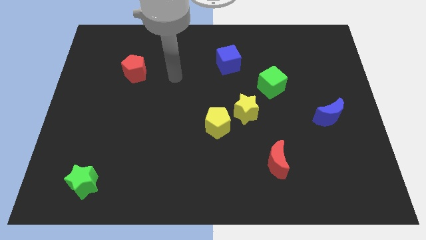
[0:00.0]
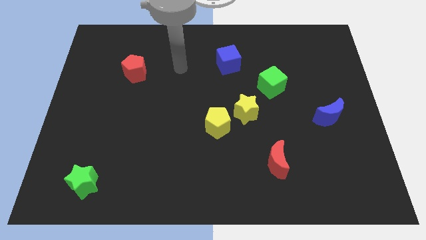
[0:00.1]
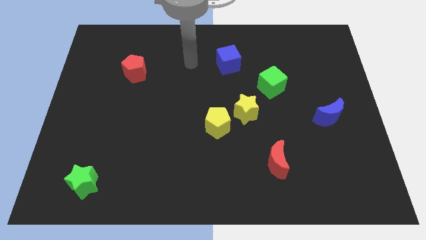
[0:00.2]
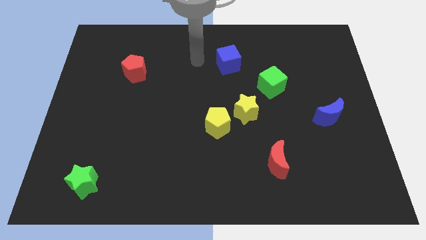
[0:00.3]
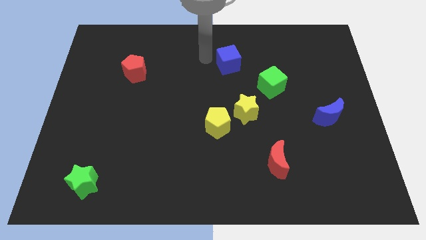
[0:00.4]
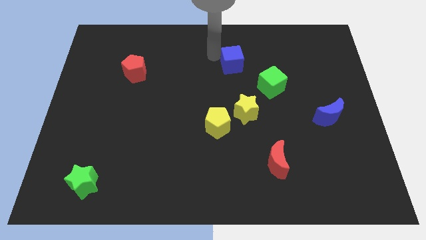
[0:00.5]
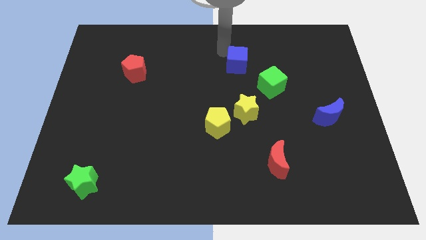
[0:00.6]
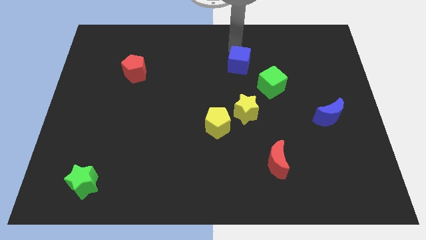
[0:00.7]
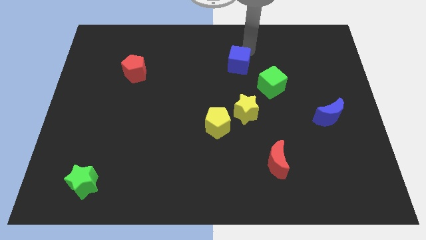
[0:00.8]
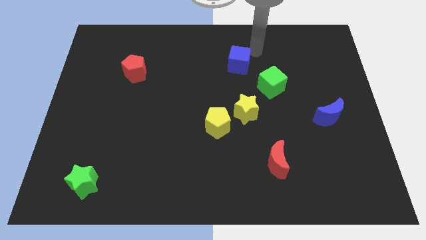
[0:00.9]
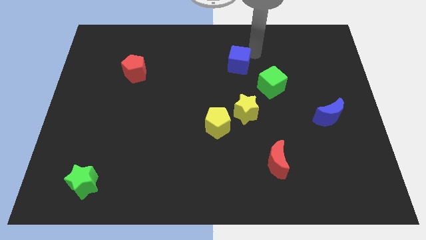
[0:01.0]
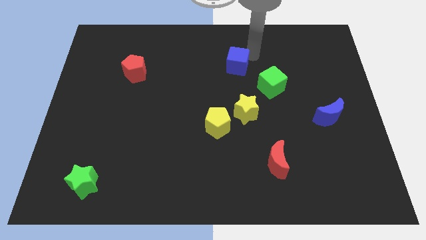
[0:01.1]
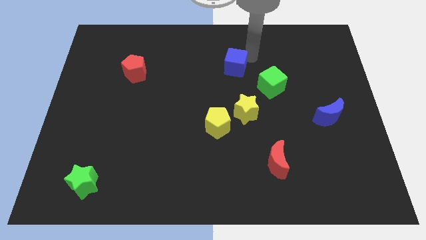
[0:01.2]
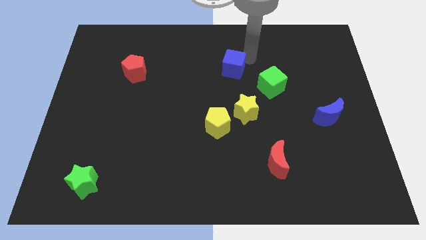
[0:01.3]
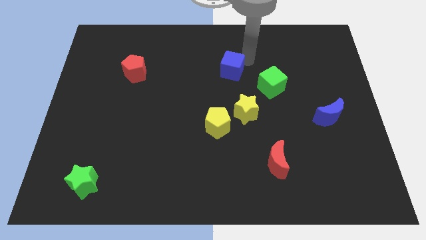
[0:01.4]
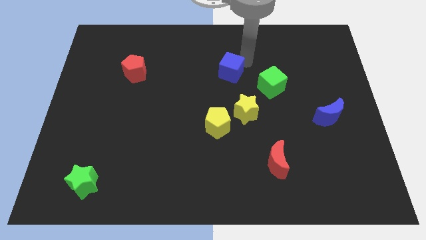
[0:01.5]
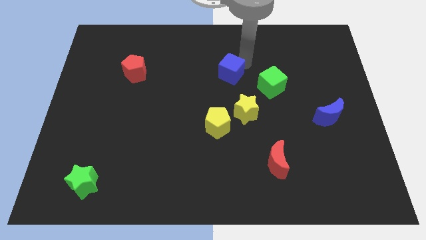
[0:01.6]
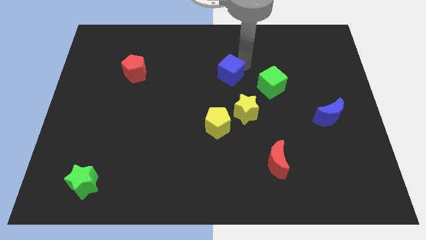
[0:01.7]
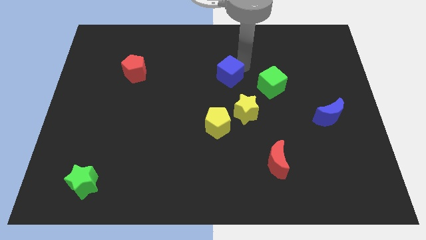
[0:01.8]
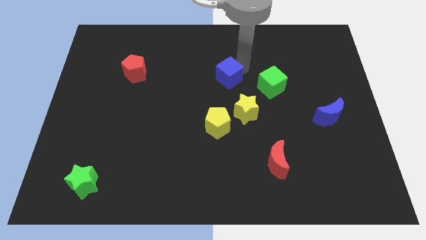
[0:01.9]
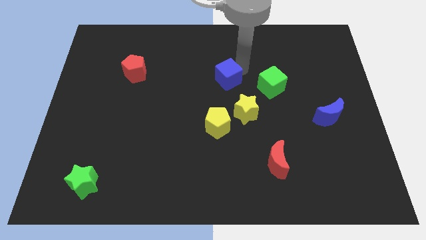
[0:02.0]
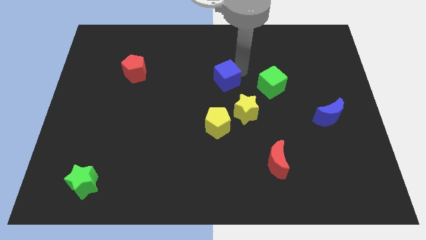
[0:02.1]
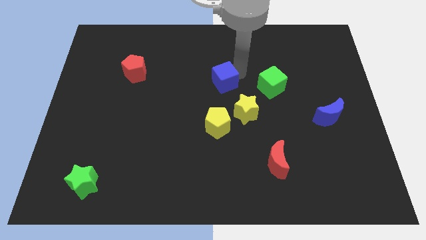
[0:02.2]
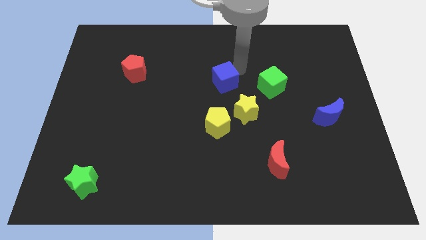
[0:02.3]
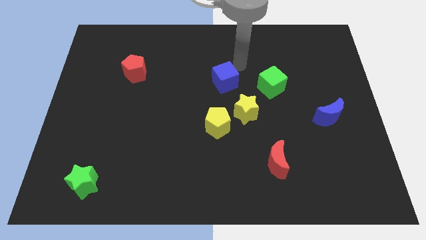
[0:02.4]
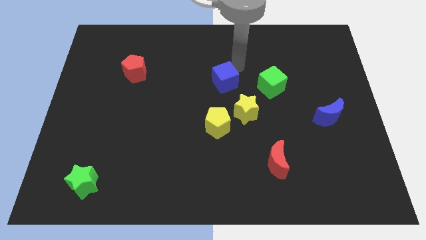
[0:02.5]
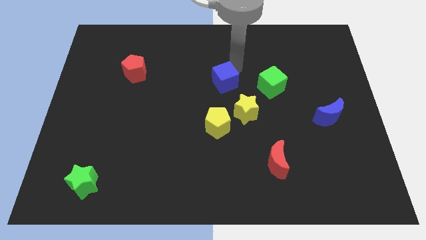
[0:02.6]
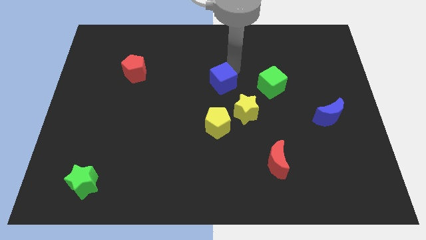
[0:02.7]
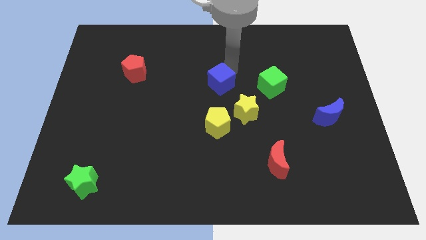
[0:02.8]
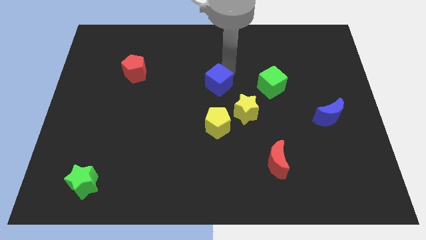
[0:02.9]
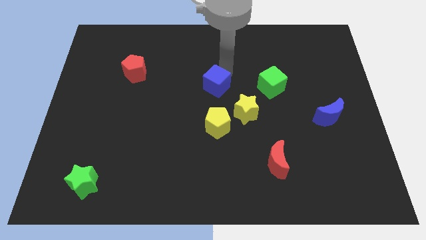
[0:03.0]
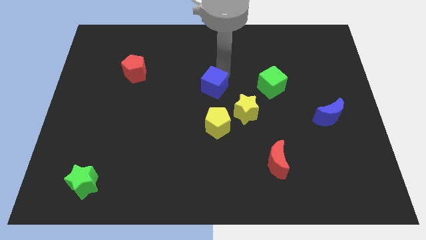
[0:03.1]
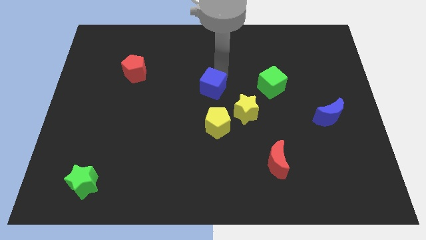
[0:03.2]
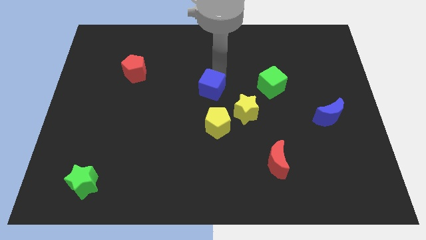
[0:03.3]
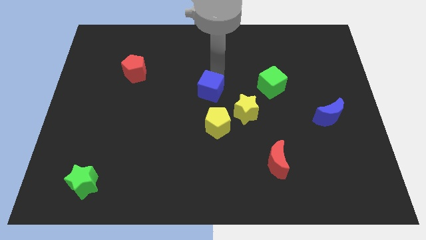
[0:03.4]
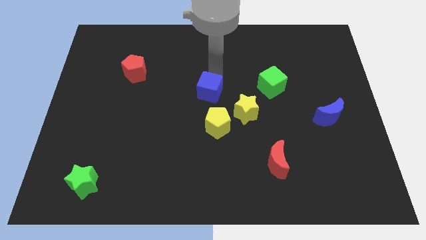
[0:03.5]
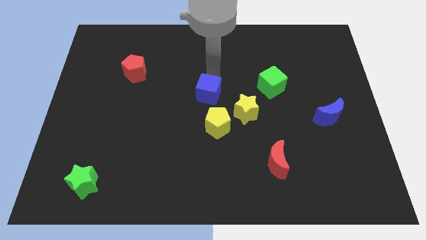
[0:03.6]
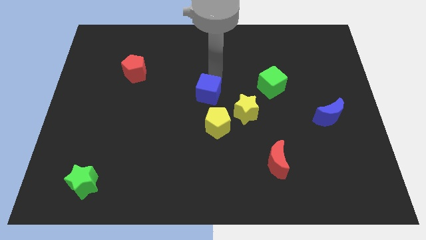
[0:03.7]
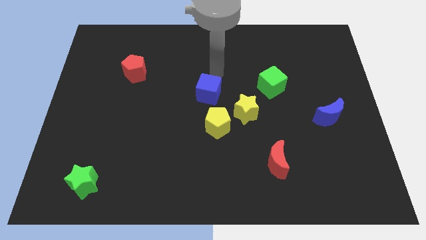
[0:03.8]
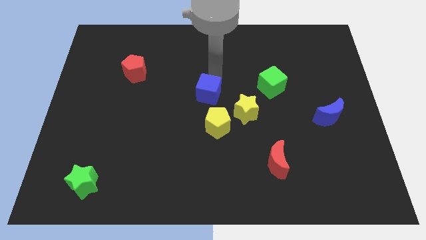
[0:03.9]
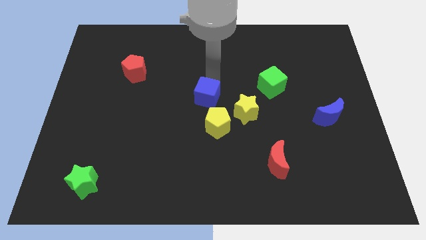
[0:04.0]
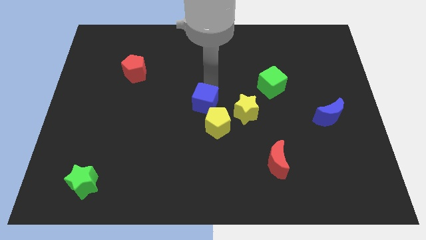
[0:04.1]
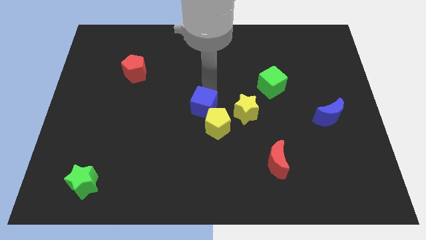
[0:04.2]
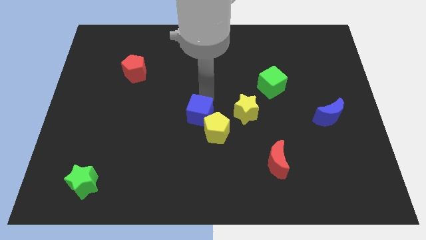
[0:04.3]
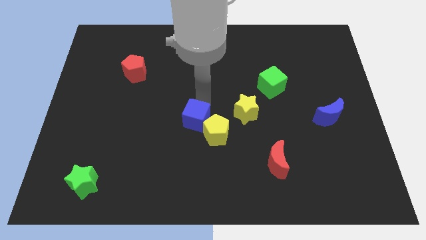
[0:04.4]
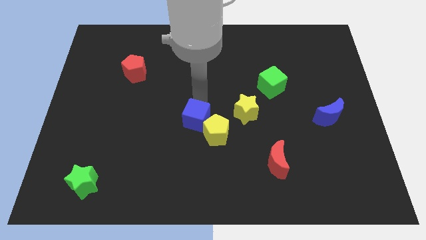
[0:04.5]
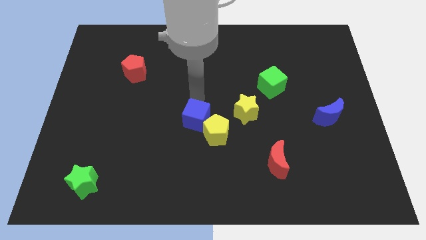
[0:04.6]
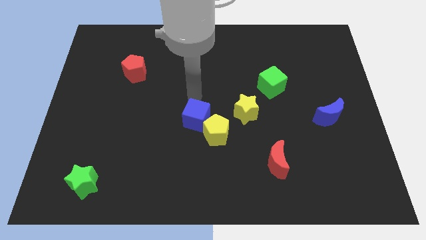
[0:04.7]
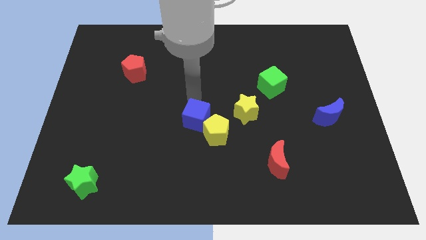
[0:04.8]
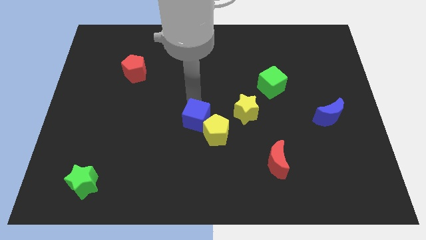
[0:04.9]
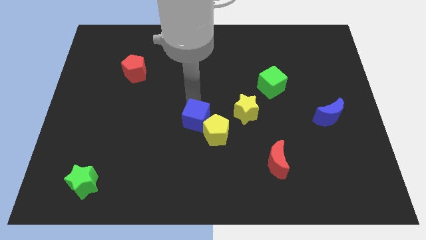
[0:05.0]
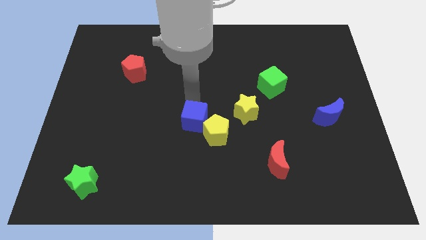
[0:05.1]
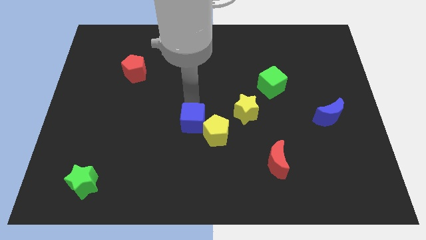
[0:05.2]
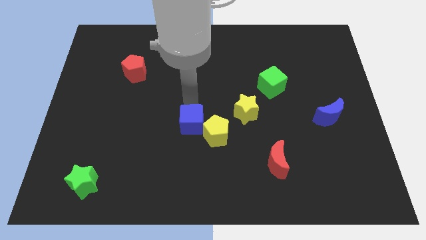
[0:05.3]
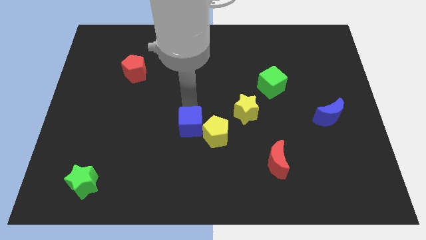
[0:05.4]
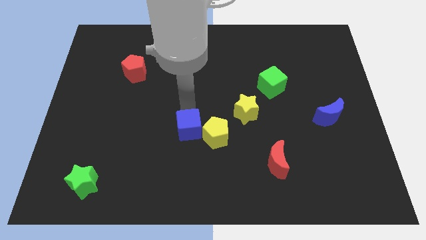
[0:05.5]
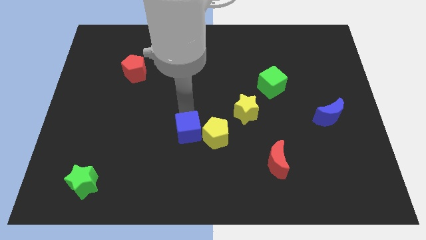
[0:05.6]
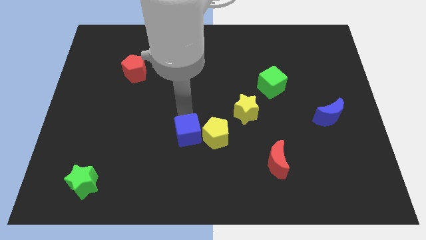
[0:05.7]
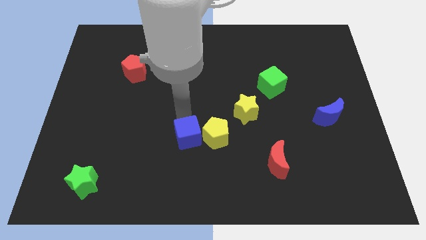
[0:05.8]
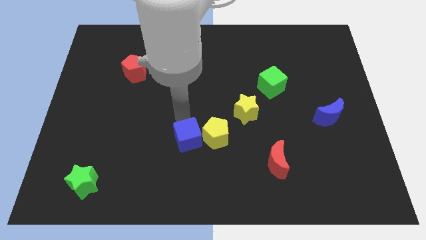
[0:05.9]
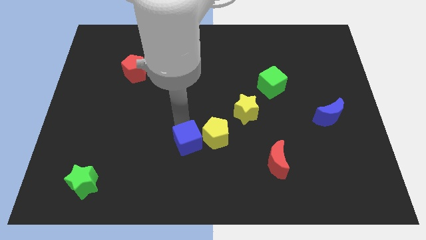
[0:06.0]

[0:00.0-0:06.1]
move the blue cube down

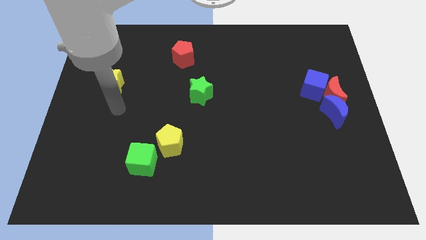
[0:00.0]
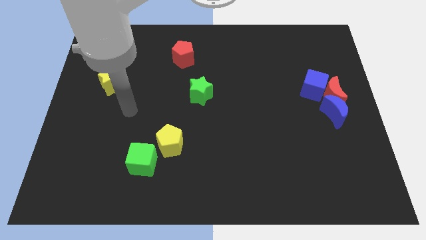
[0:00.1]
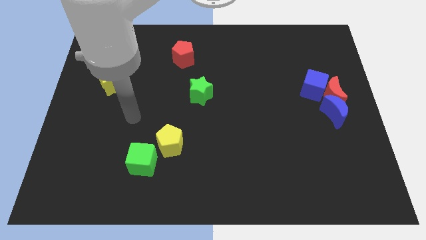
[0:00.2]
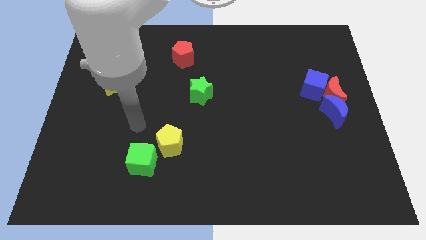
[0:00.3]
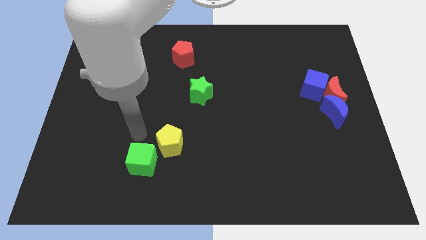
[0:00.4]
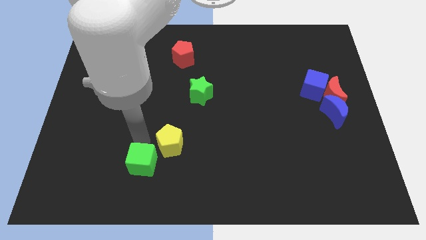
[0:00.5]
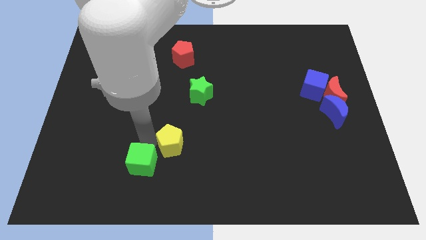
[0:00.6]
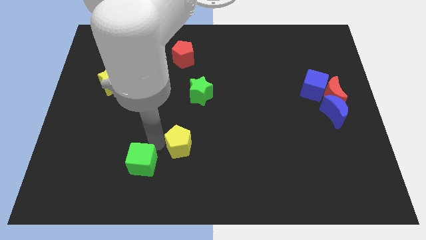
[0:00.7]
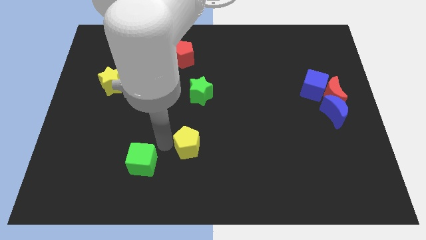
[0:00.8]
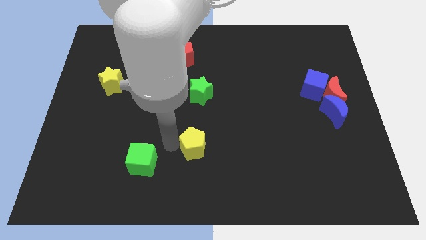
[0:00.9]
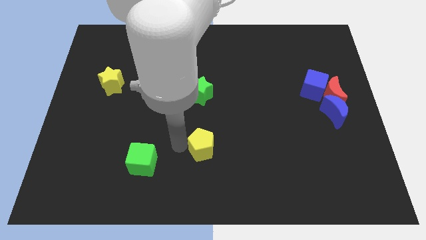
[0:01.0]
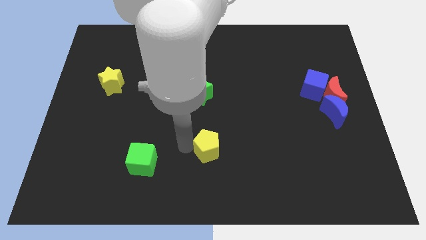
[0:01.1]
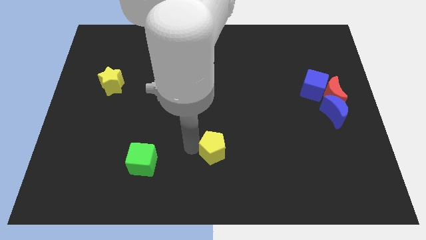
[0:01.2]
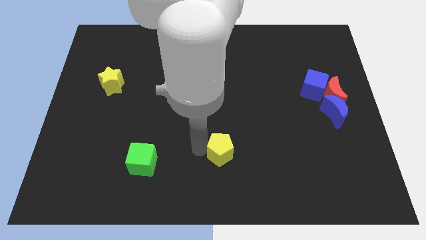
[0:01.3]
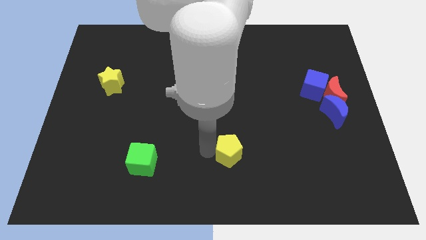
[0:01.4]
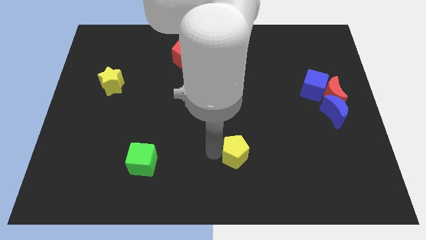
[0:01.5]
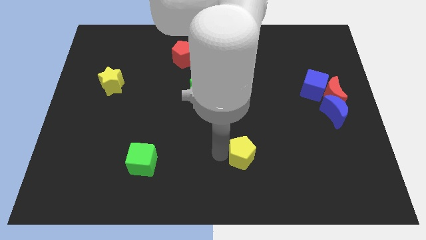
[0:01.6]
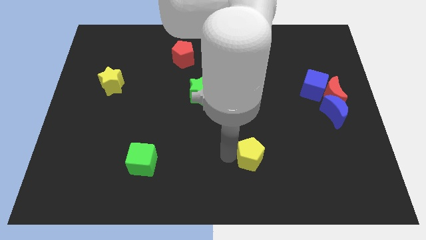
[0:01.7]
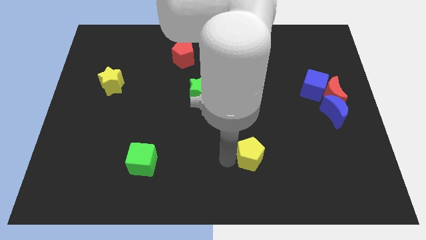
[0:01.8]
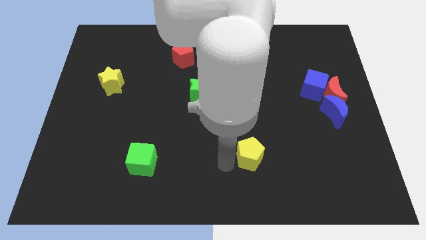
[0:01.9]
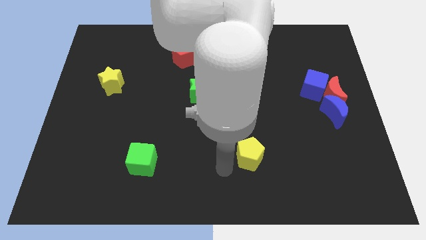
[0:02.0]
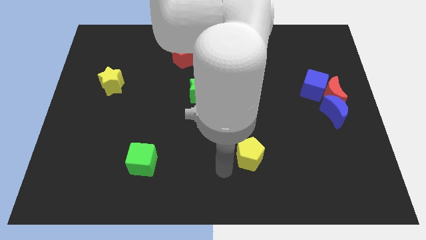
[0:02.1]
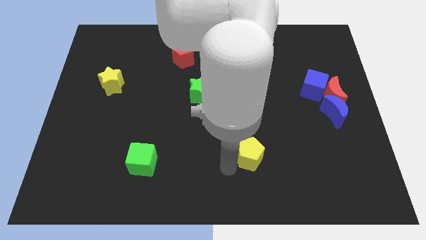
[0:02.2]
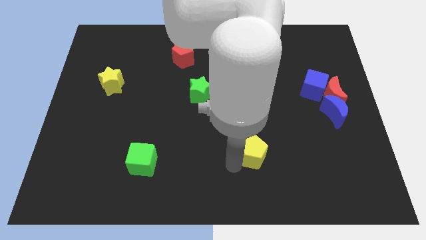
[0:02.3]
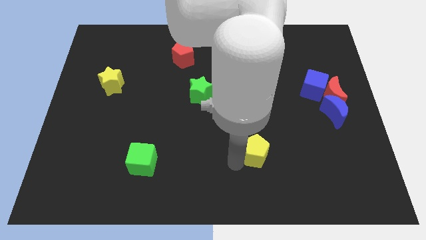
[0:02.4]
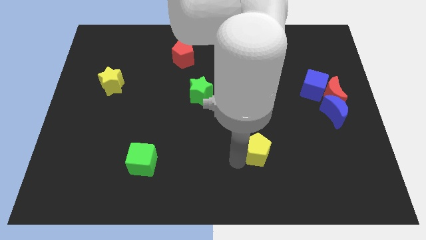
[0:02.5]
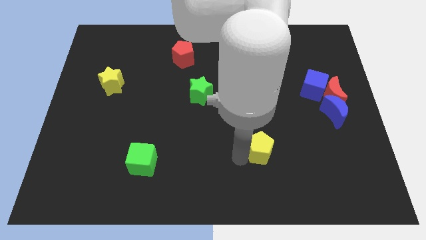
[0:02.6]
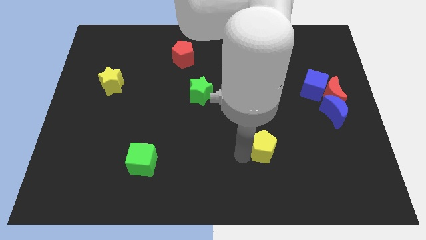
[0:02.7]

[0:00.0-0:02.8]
move the yellow pentagon right
